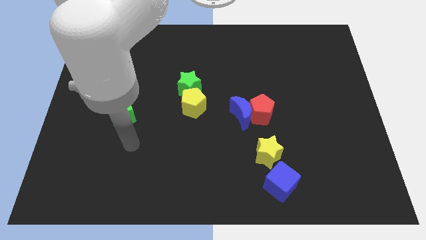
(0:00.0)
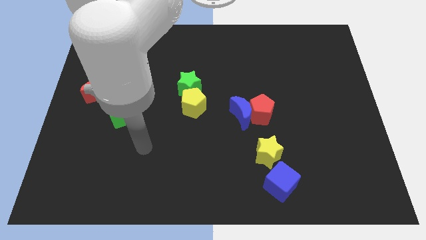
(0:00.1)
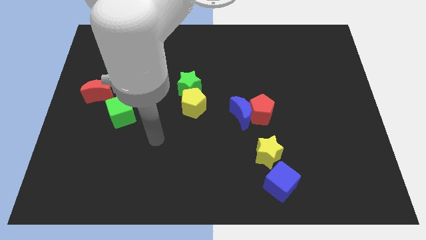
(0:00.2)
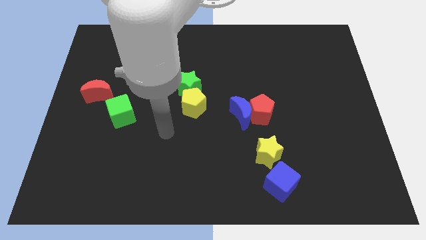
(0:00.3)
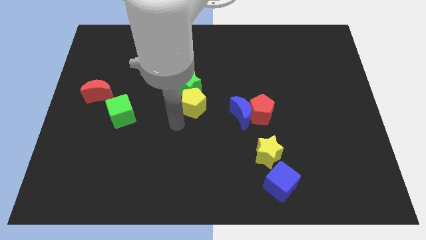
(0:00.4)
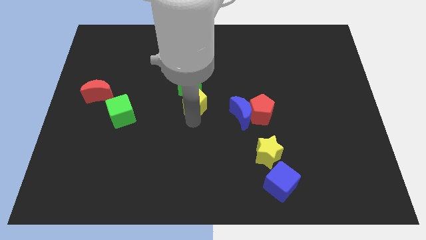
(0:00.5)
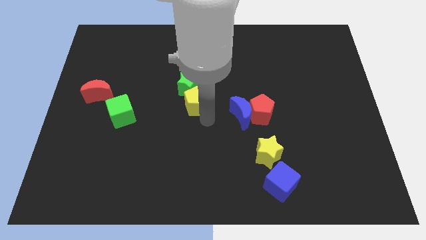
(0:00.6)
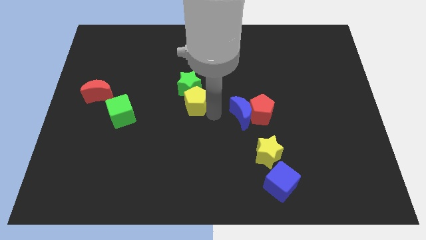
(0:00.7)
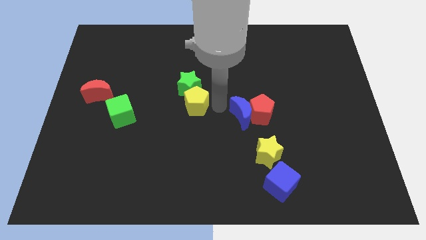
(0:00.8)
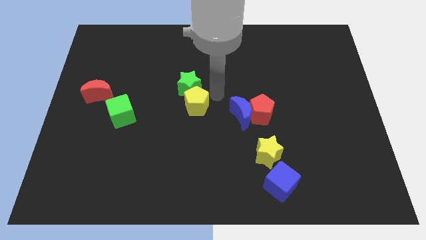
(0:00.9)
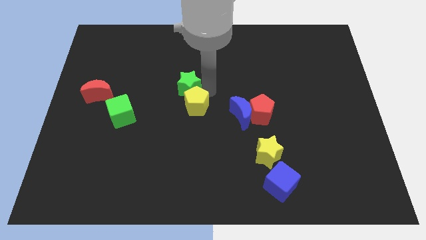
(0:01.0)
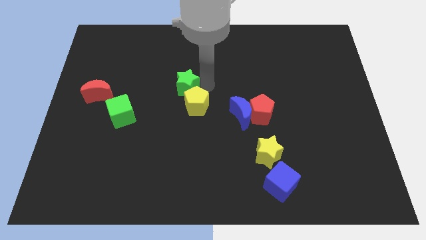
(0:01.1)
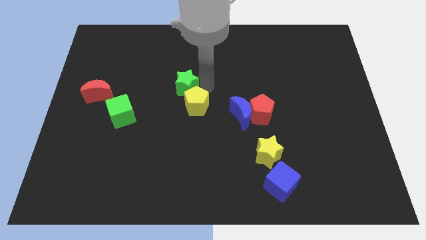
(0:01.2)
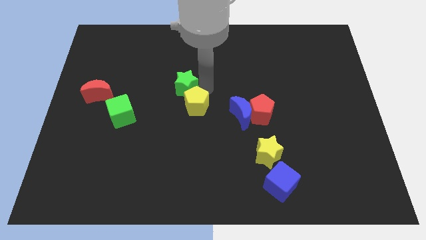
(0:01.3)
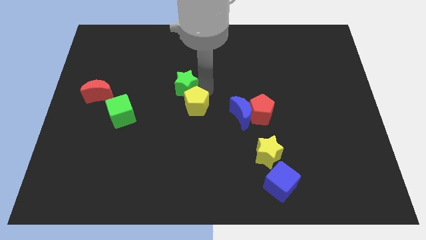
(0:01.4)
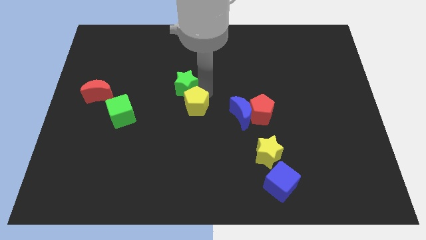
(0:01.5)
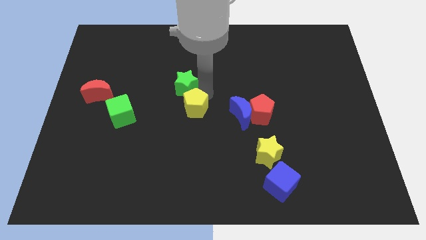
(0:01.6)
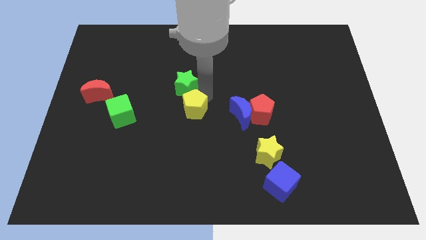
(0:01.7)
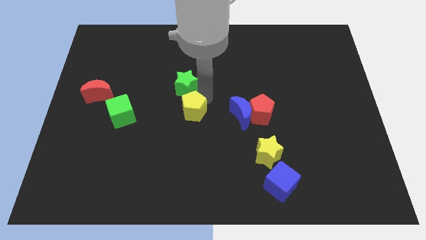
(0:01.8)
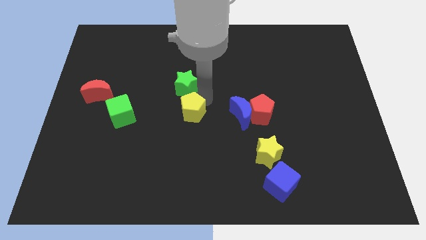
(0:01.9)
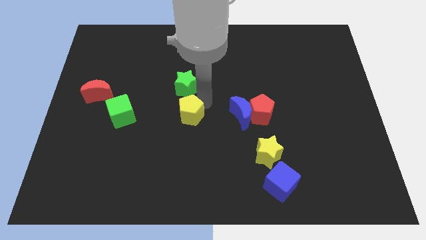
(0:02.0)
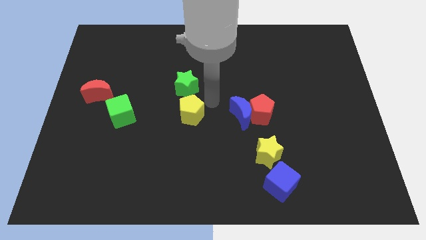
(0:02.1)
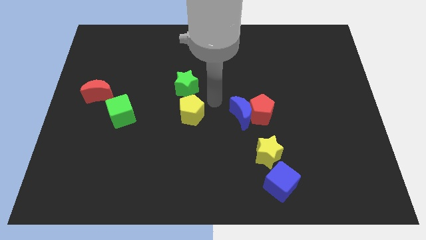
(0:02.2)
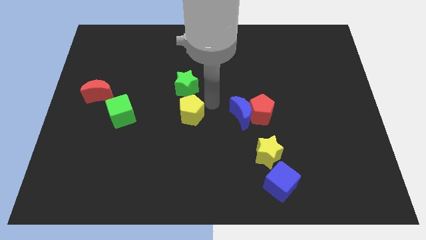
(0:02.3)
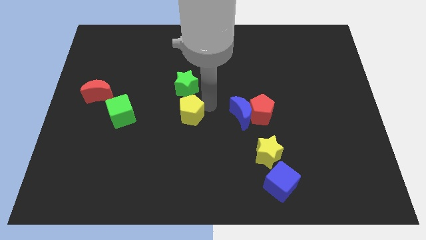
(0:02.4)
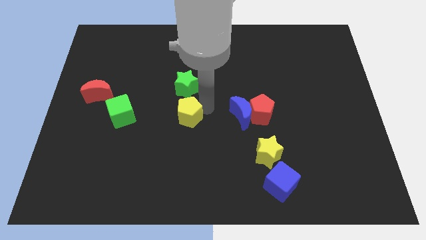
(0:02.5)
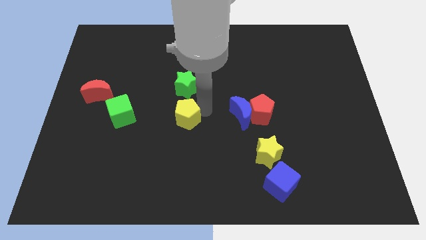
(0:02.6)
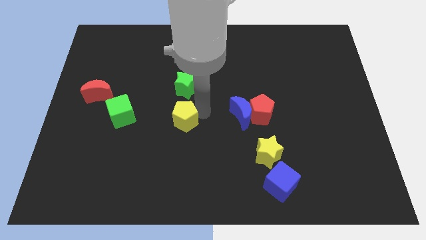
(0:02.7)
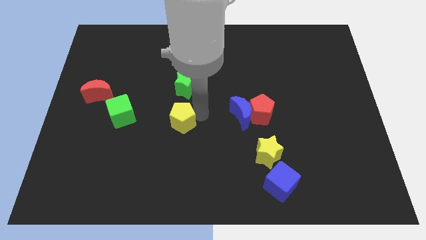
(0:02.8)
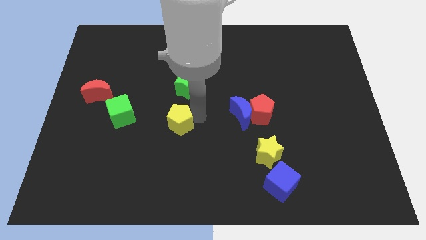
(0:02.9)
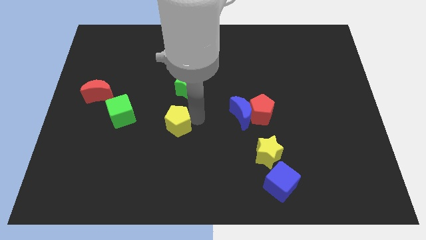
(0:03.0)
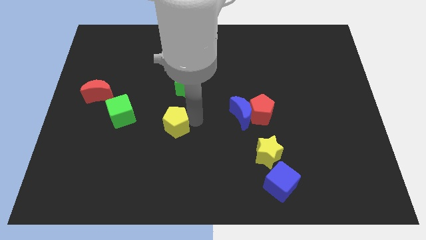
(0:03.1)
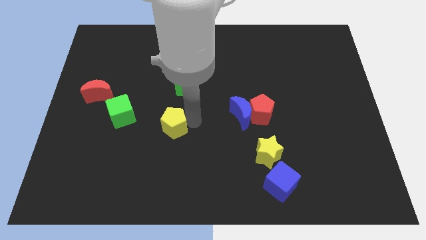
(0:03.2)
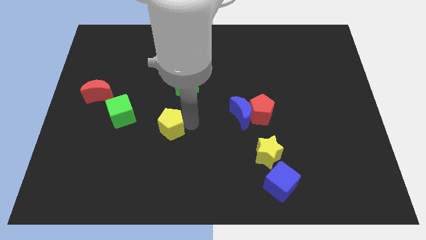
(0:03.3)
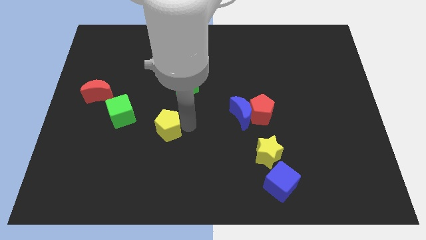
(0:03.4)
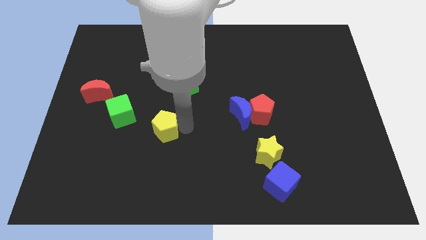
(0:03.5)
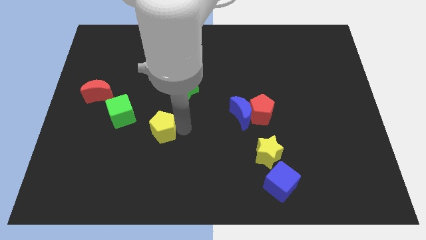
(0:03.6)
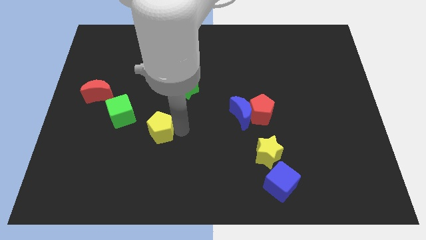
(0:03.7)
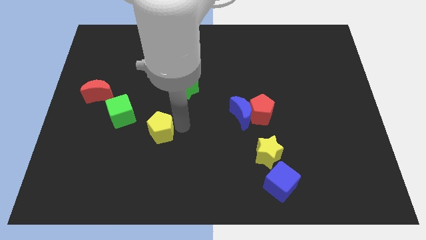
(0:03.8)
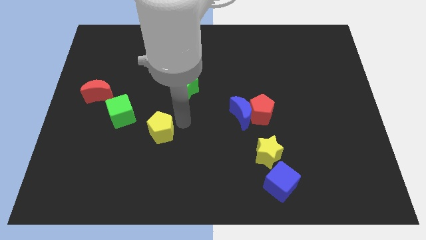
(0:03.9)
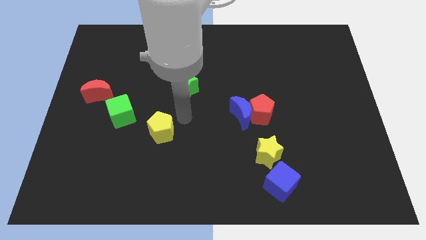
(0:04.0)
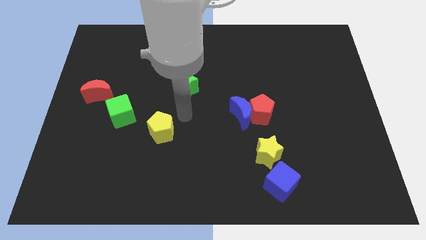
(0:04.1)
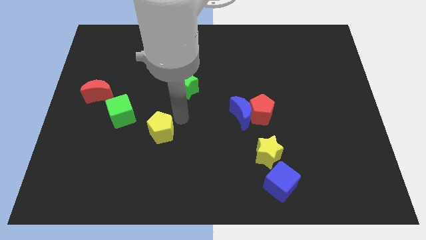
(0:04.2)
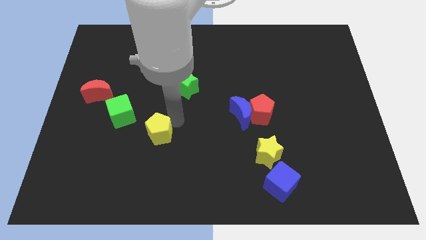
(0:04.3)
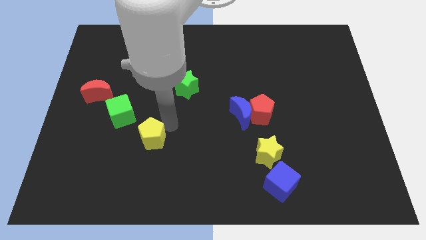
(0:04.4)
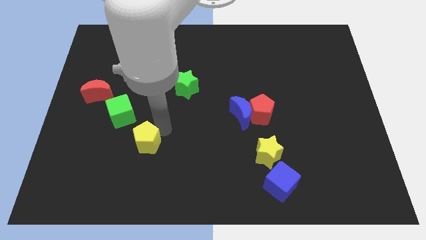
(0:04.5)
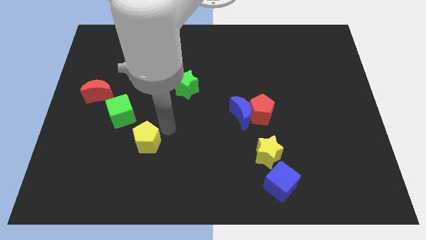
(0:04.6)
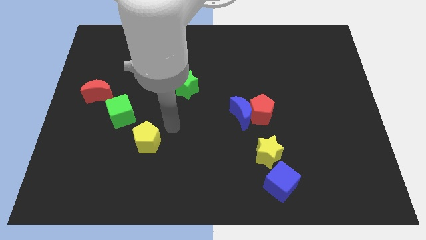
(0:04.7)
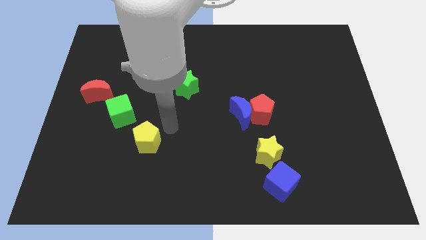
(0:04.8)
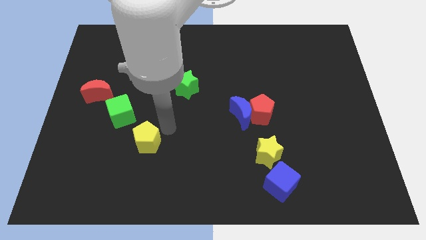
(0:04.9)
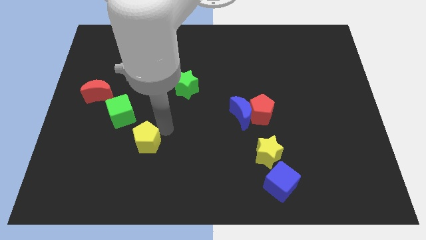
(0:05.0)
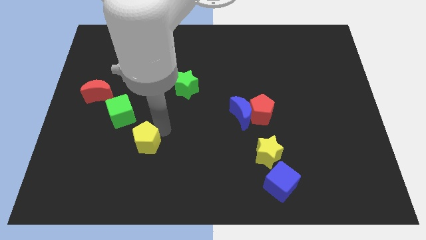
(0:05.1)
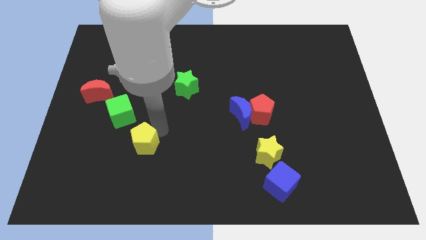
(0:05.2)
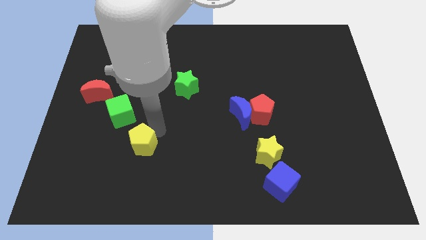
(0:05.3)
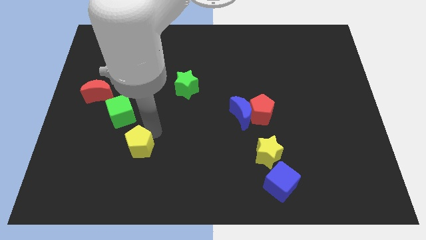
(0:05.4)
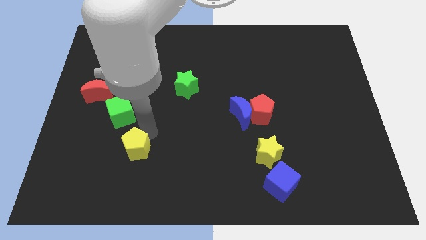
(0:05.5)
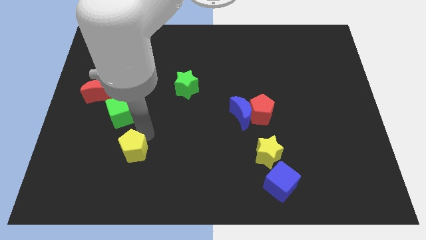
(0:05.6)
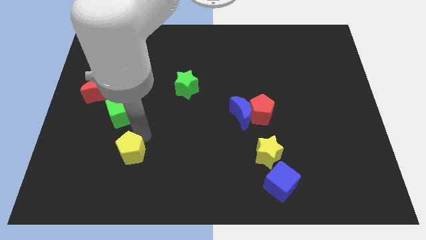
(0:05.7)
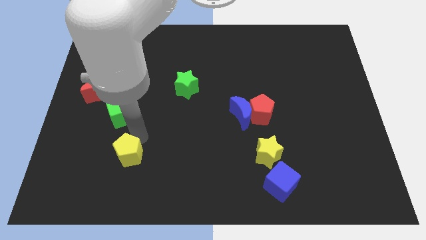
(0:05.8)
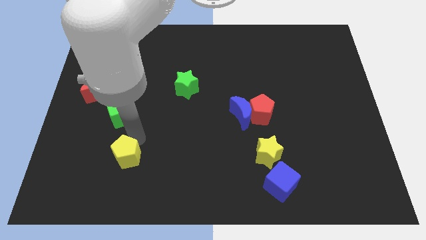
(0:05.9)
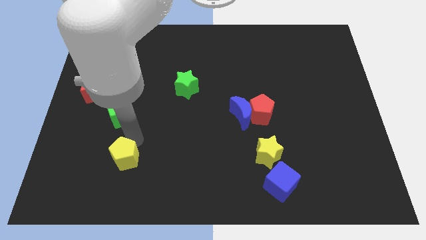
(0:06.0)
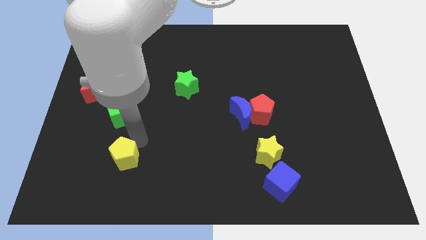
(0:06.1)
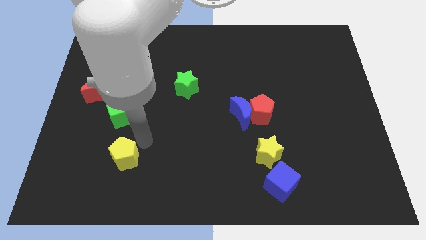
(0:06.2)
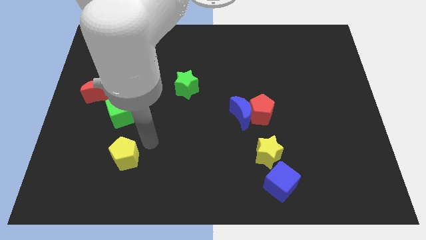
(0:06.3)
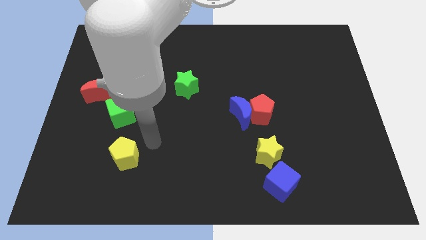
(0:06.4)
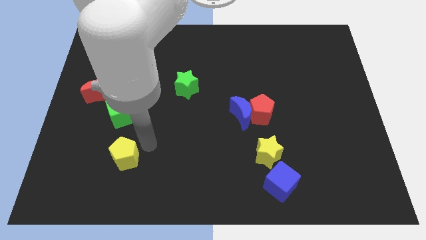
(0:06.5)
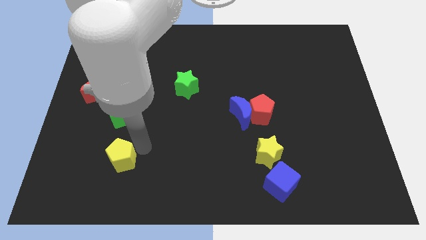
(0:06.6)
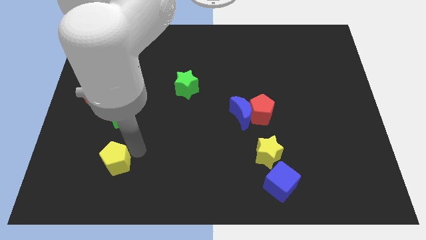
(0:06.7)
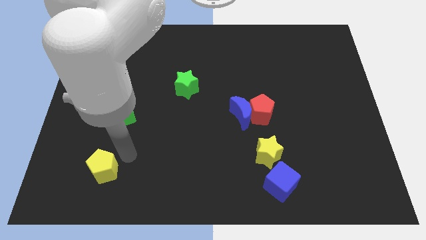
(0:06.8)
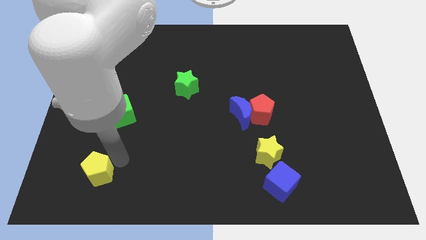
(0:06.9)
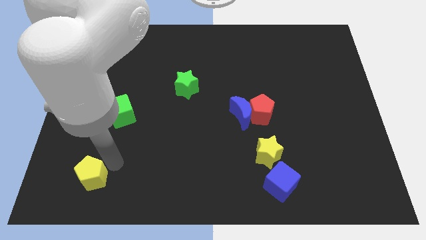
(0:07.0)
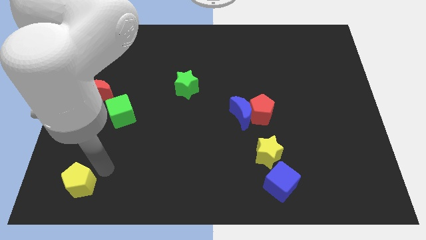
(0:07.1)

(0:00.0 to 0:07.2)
slide the yellow pentagon to the bottom left of the board
